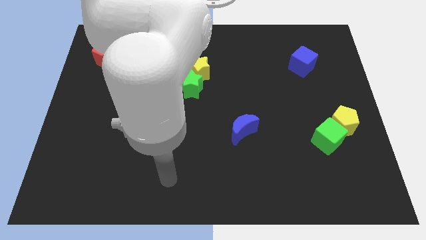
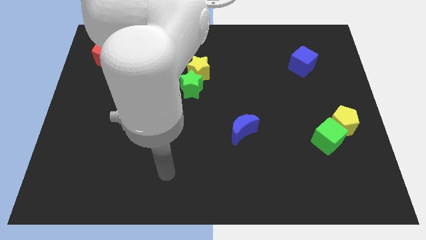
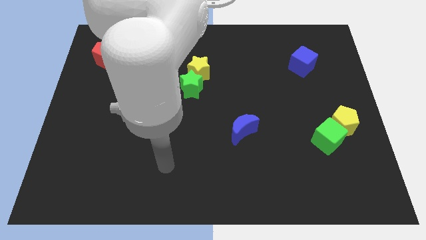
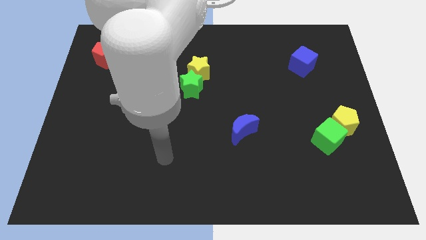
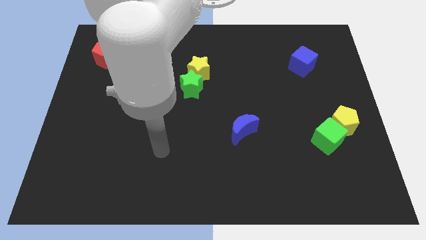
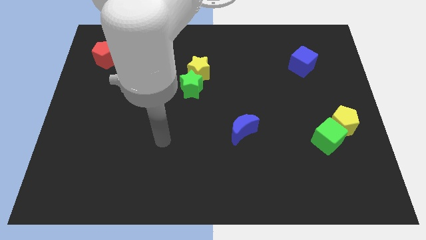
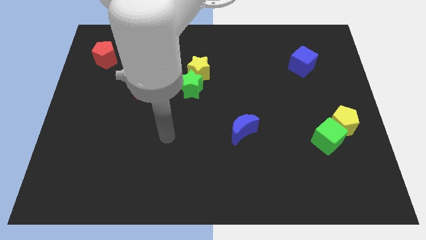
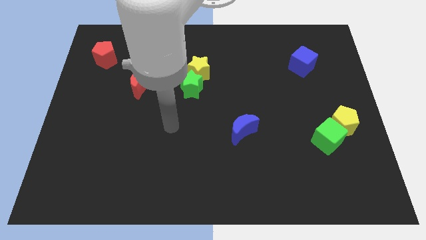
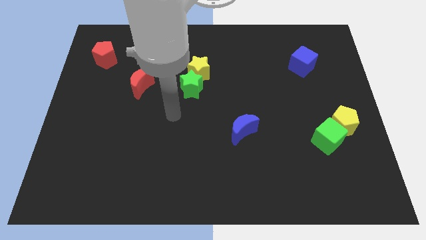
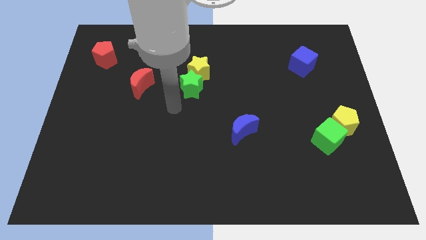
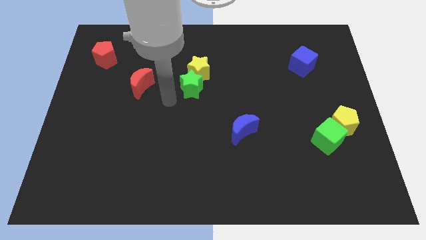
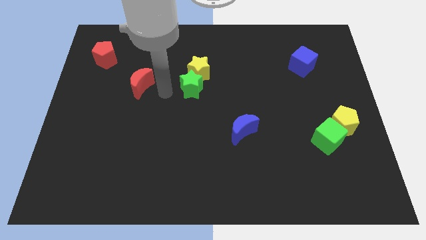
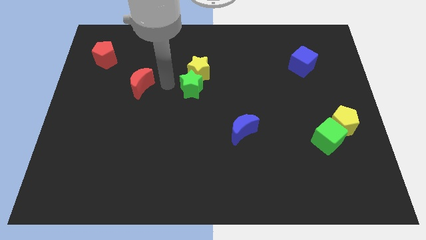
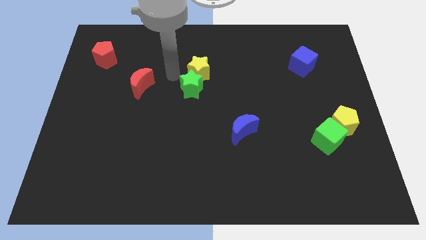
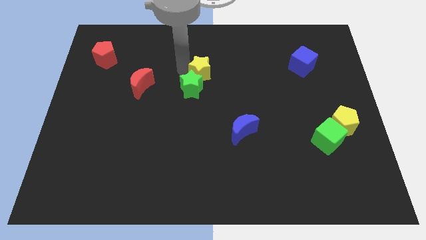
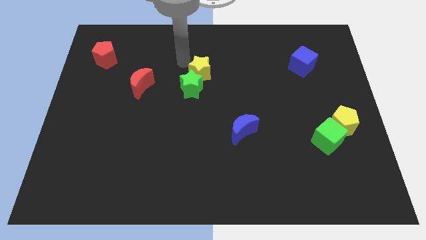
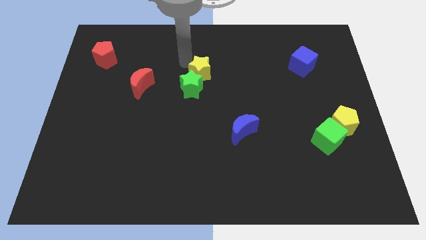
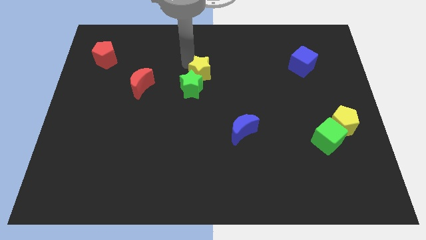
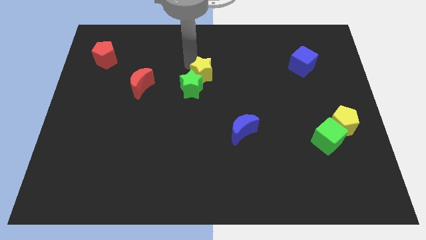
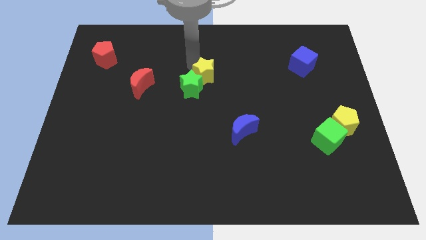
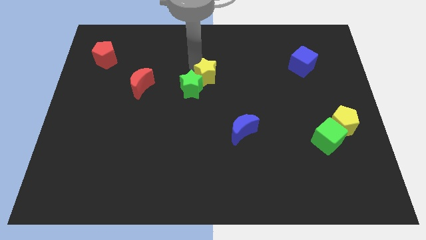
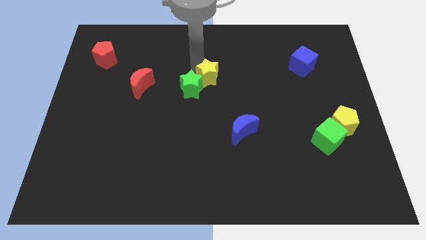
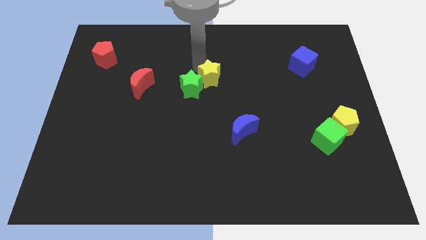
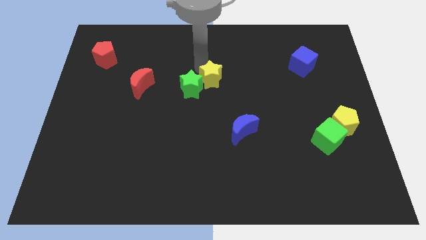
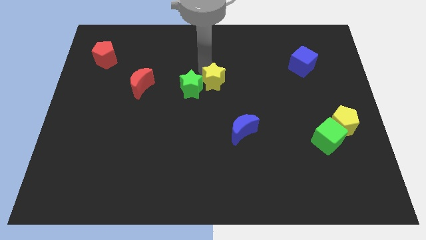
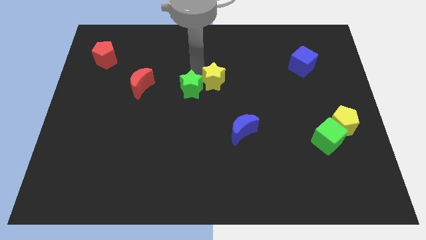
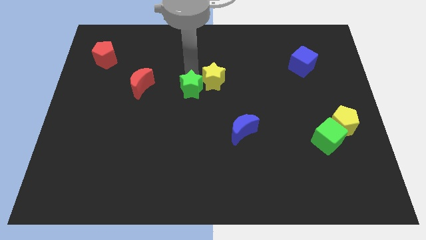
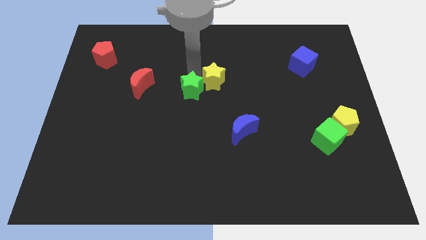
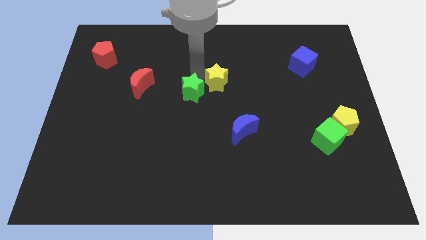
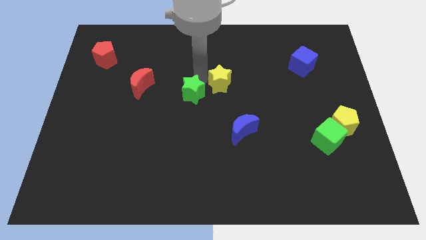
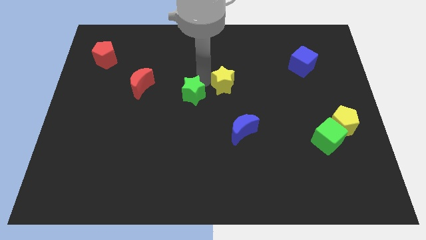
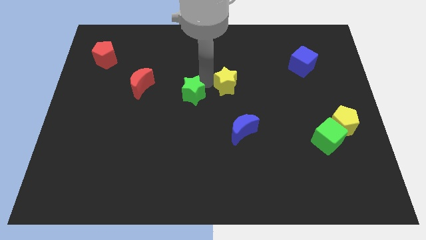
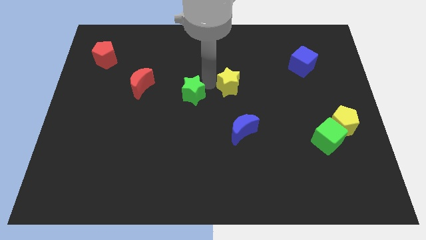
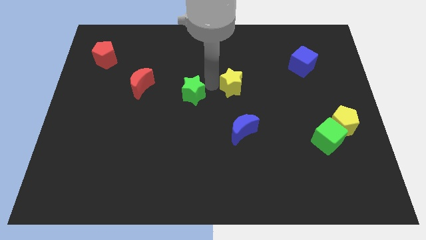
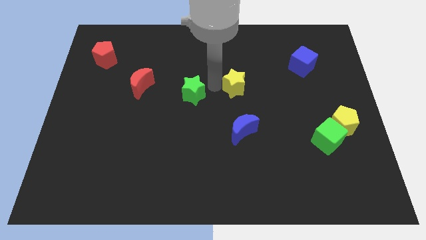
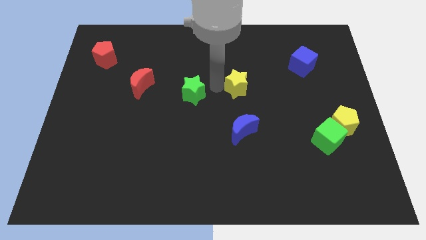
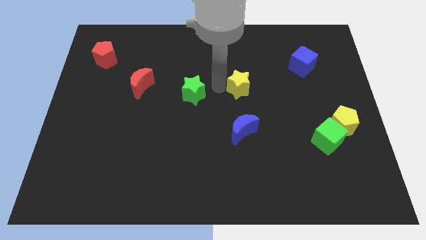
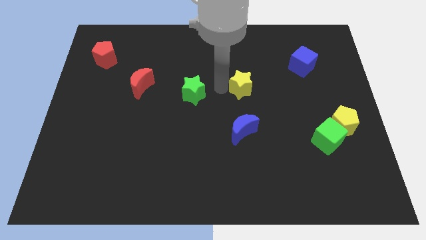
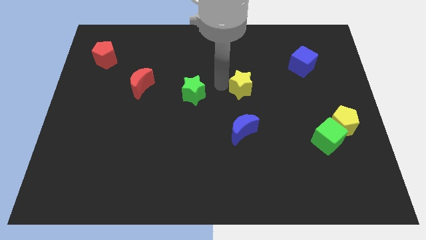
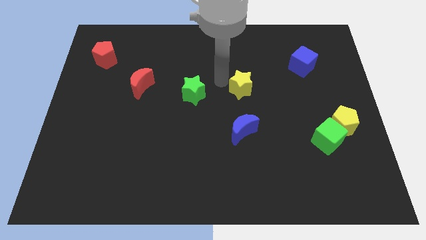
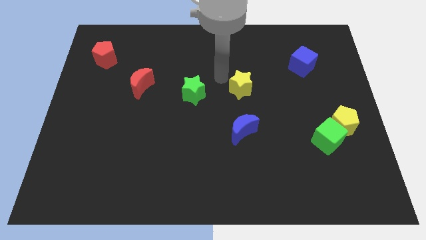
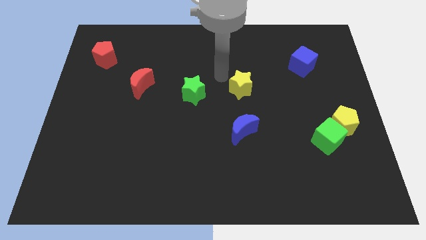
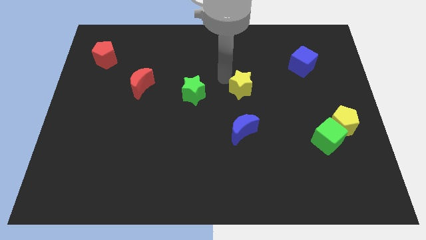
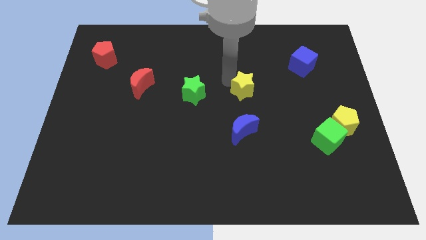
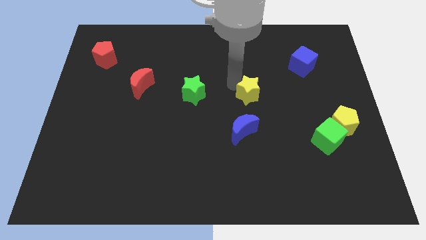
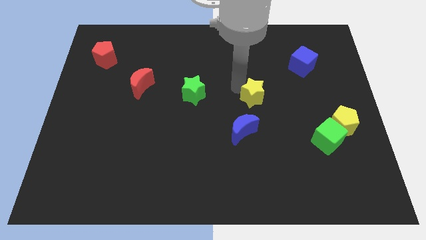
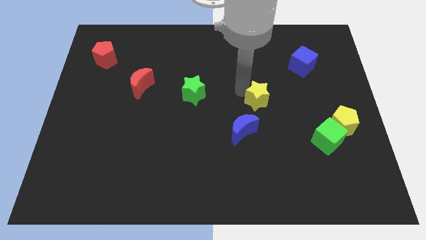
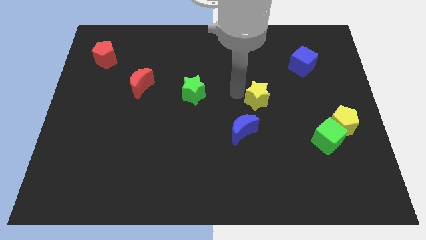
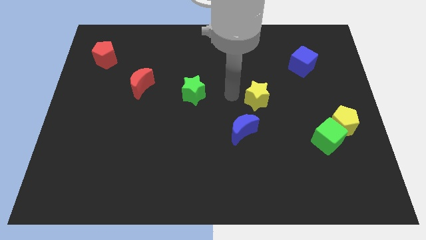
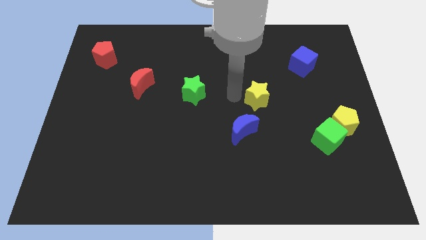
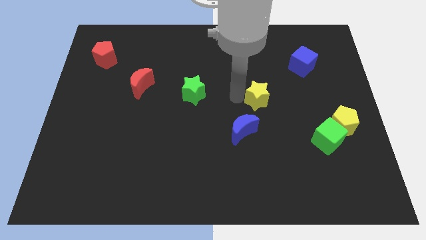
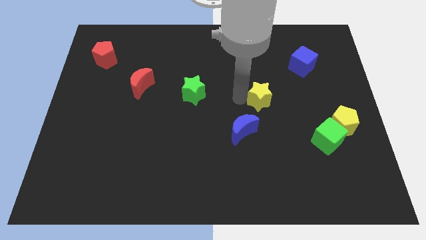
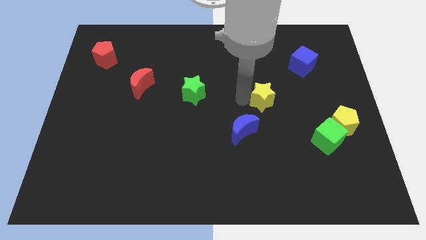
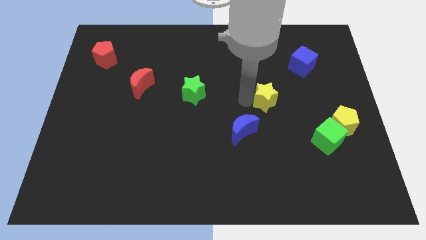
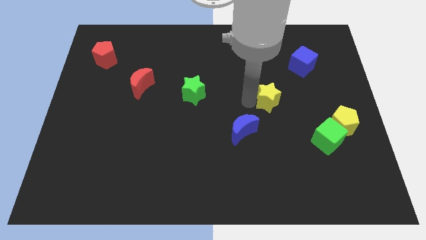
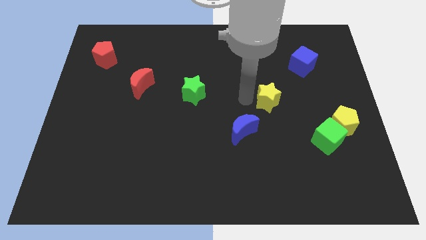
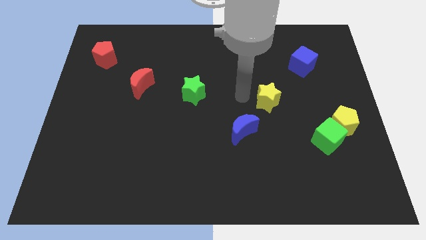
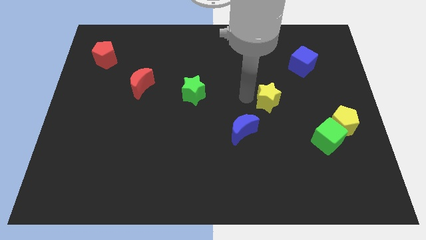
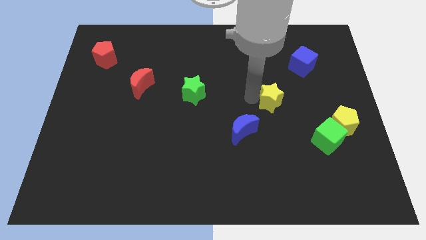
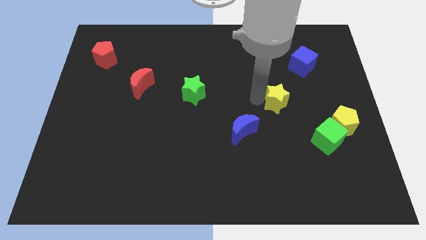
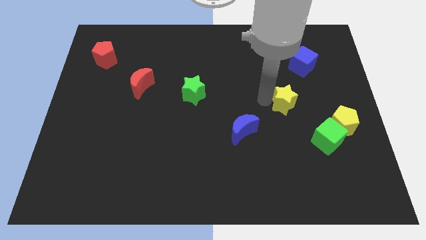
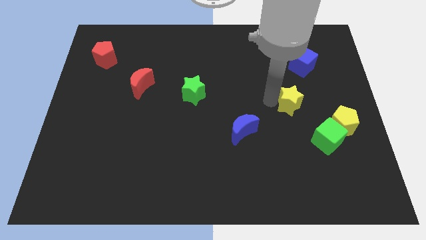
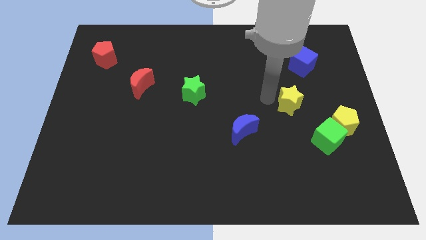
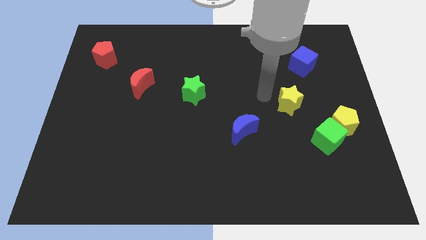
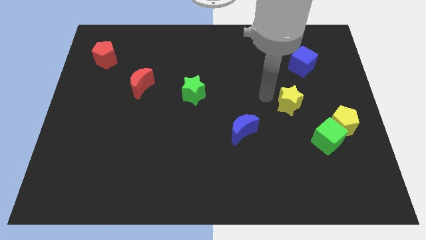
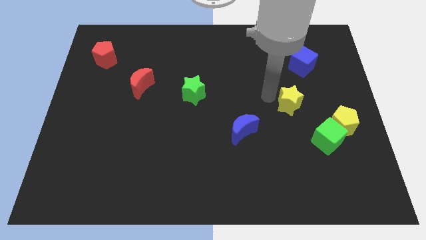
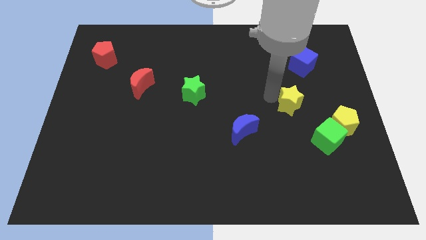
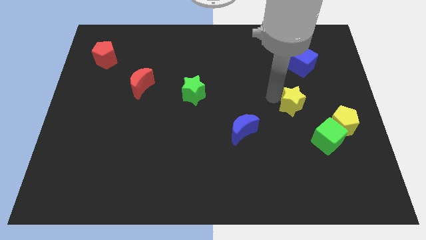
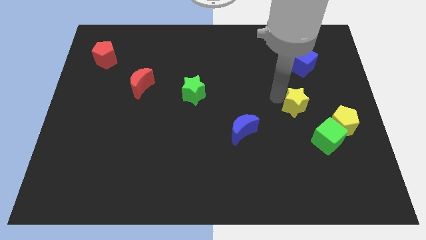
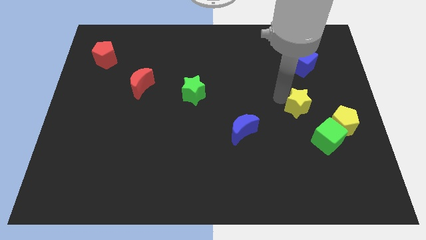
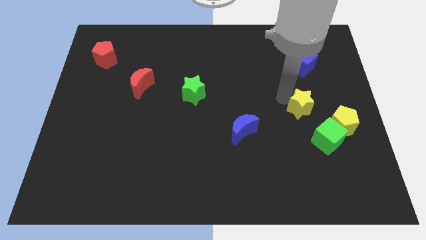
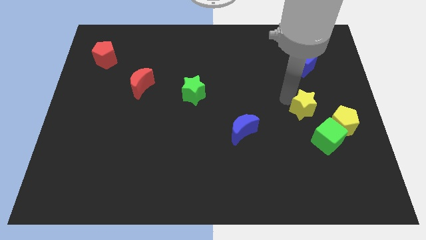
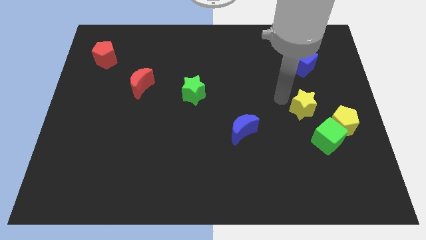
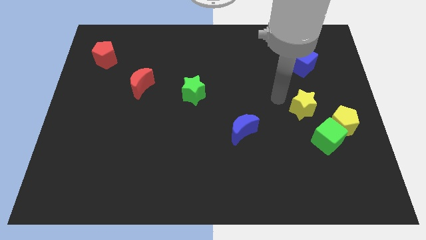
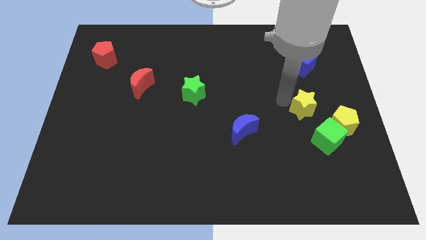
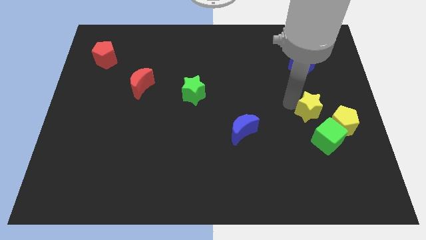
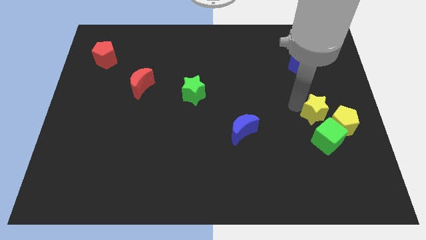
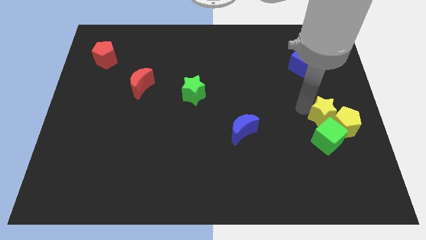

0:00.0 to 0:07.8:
move the yellow star towards the yellow pentagon
